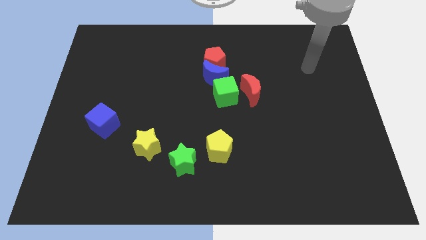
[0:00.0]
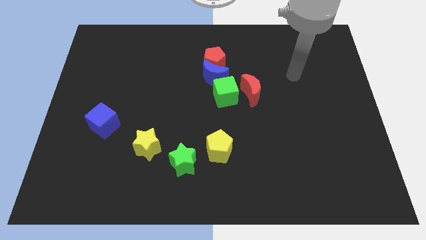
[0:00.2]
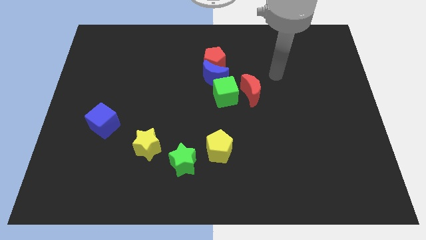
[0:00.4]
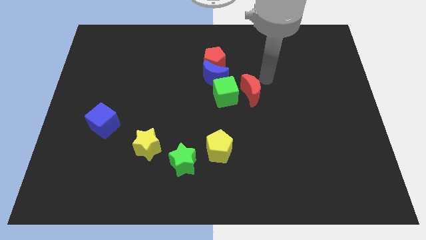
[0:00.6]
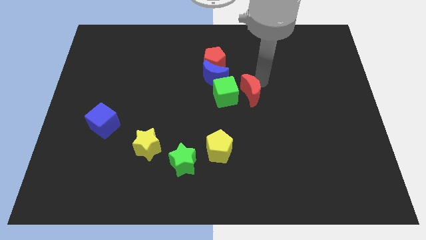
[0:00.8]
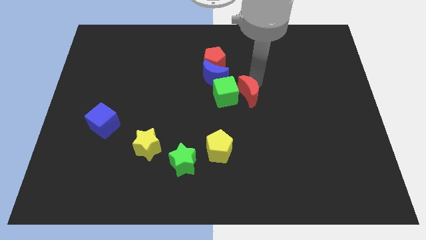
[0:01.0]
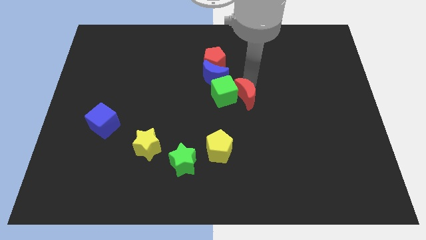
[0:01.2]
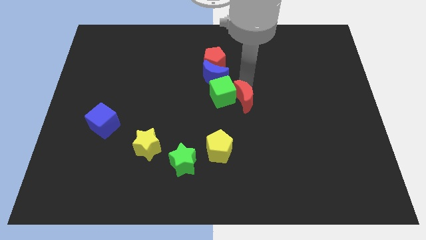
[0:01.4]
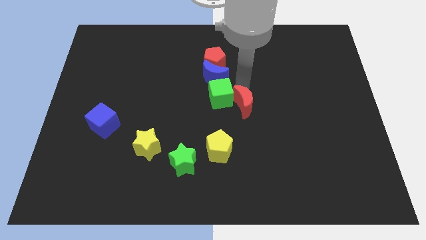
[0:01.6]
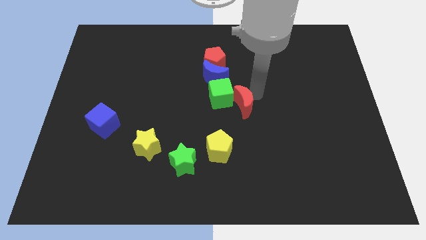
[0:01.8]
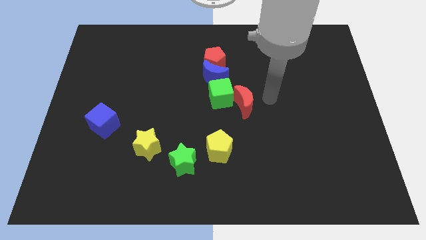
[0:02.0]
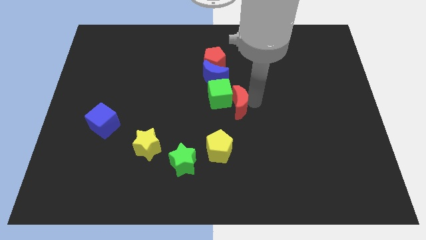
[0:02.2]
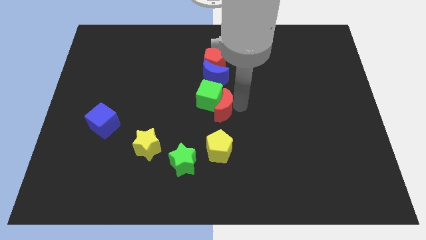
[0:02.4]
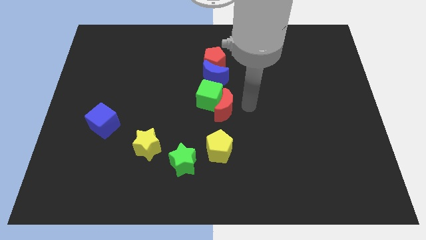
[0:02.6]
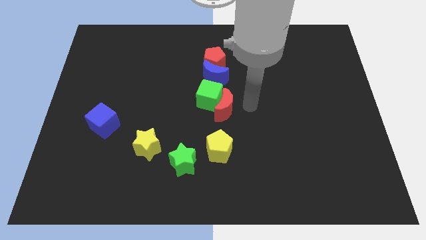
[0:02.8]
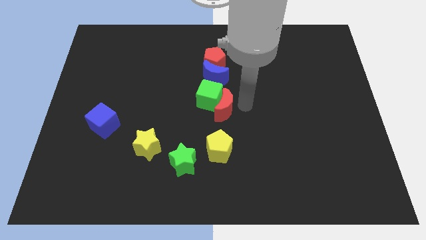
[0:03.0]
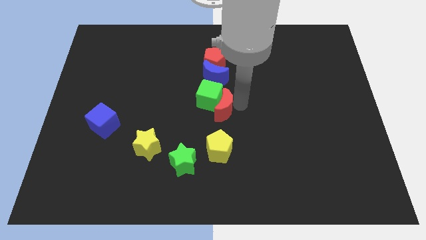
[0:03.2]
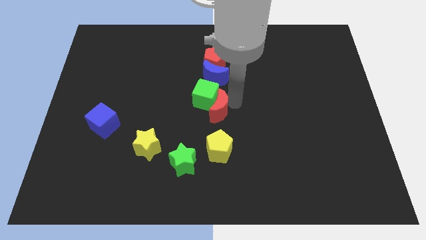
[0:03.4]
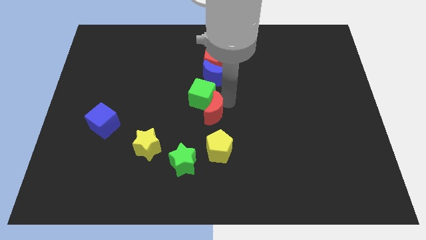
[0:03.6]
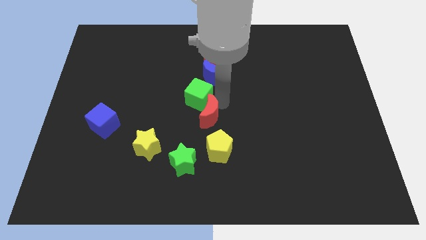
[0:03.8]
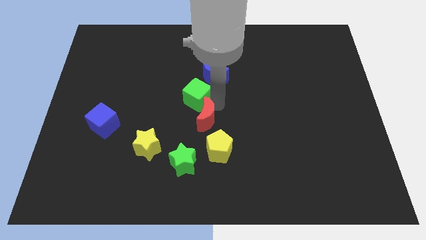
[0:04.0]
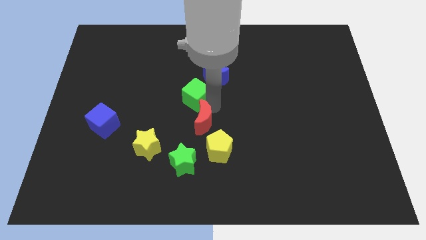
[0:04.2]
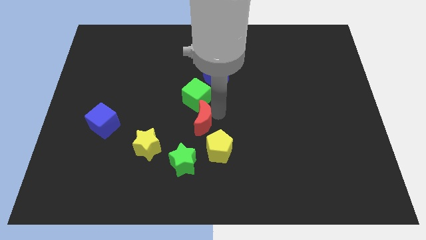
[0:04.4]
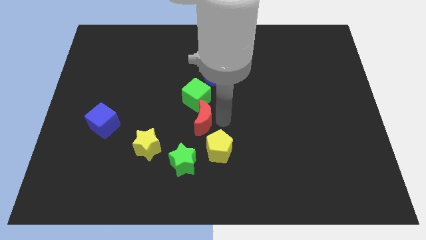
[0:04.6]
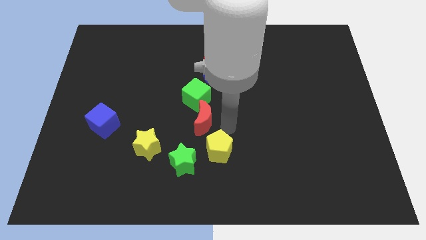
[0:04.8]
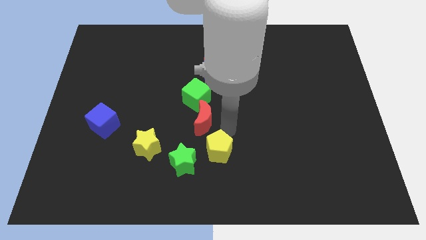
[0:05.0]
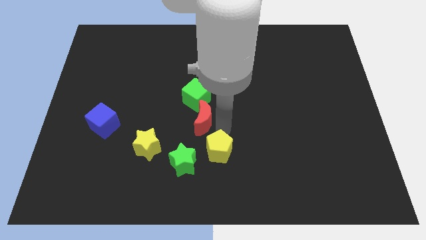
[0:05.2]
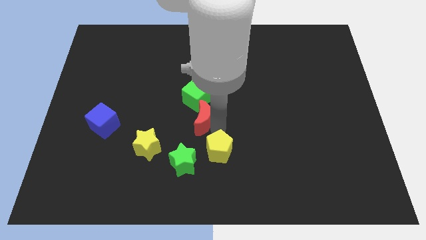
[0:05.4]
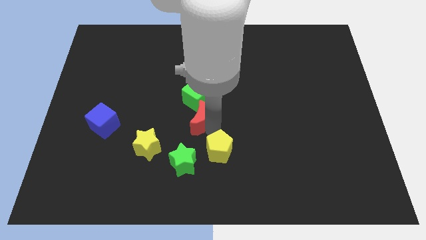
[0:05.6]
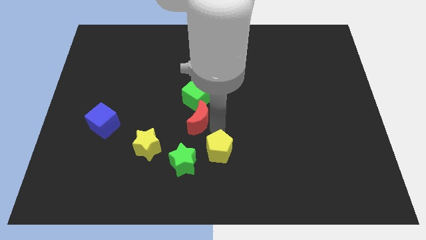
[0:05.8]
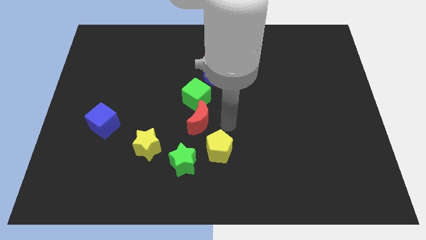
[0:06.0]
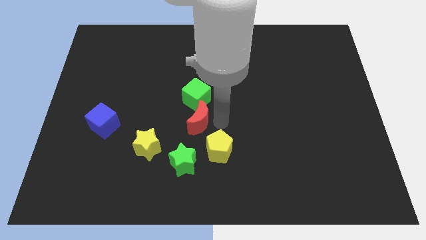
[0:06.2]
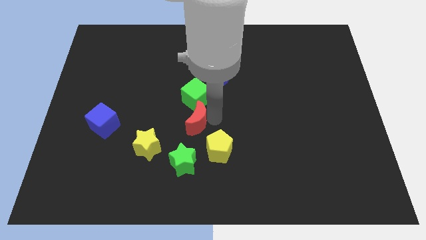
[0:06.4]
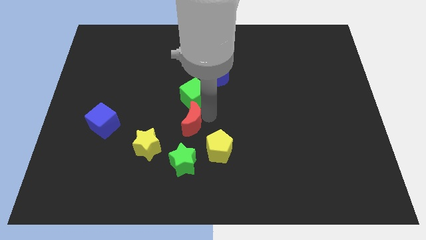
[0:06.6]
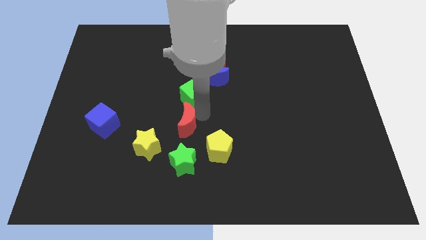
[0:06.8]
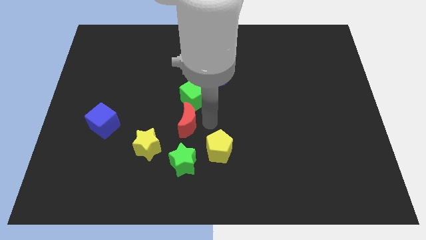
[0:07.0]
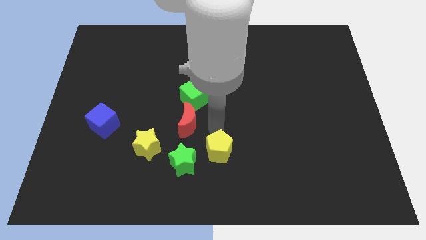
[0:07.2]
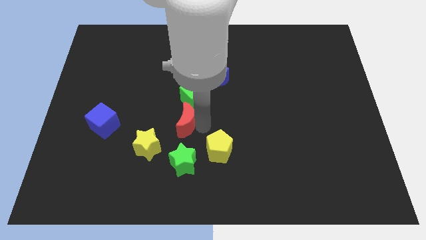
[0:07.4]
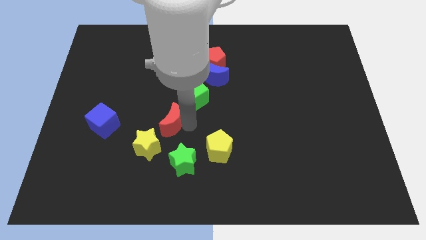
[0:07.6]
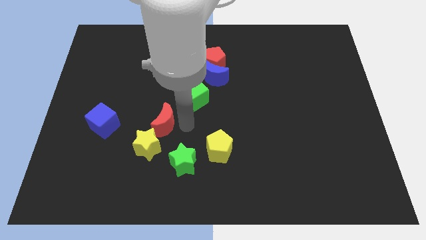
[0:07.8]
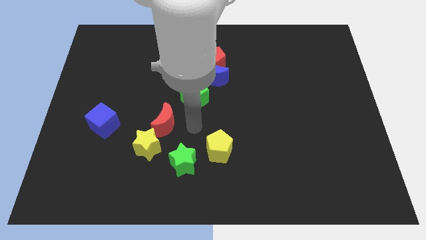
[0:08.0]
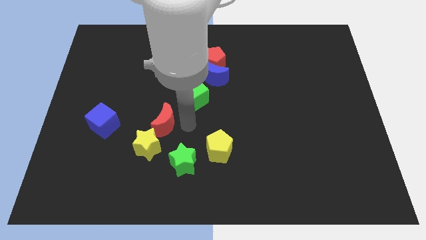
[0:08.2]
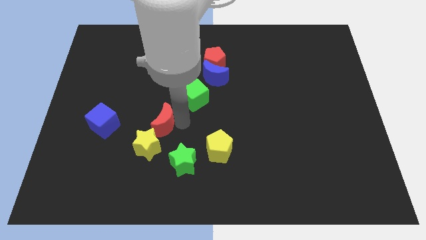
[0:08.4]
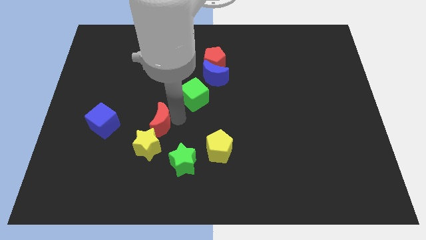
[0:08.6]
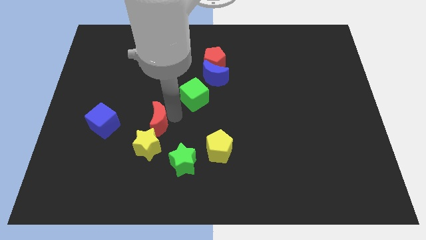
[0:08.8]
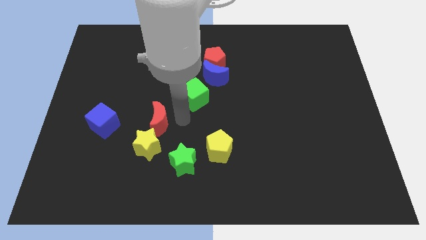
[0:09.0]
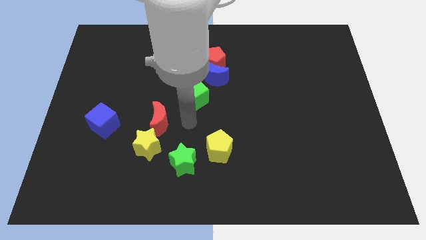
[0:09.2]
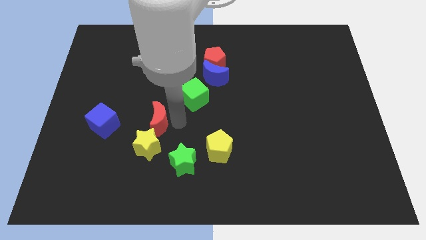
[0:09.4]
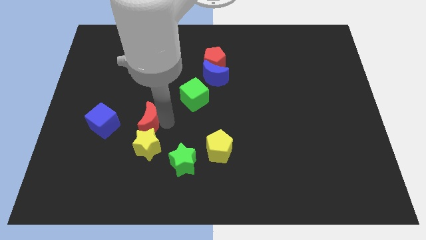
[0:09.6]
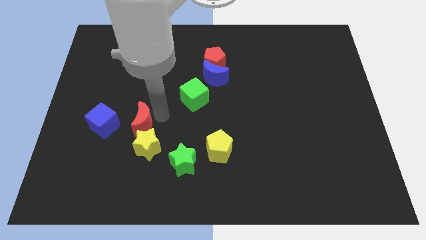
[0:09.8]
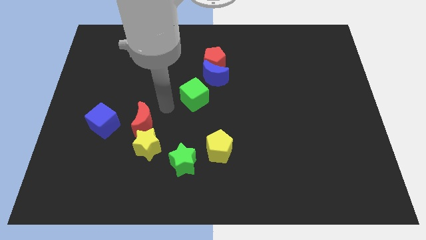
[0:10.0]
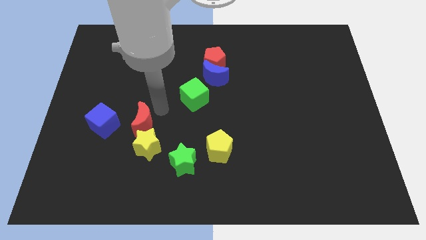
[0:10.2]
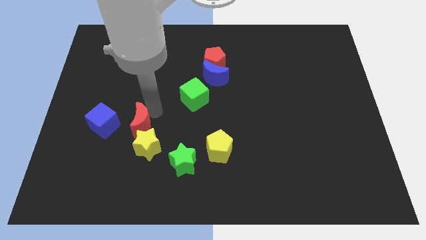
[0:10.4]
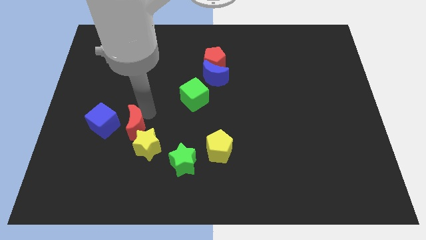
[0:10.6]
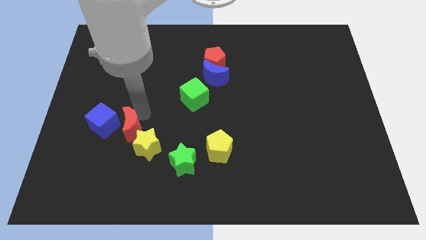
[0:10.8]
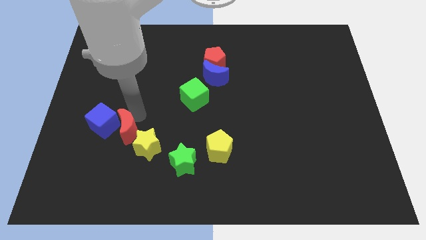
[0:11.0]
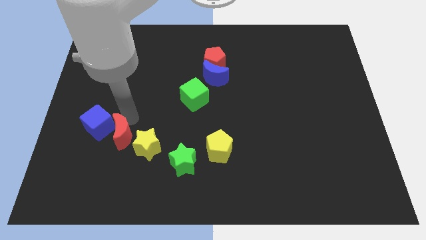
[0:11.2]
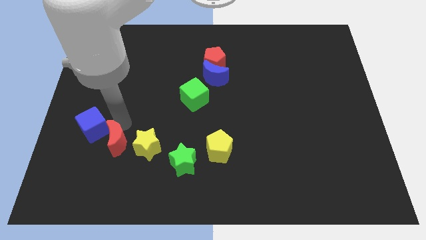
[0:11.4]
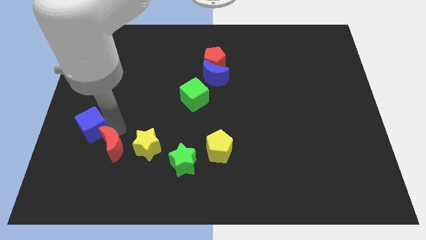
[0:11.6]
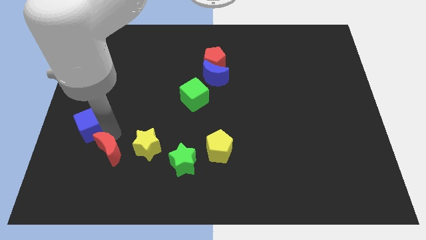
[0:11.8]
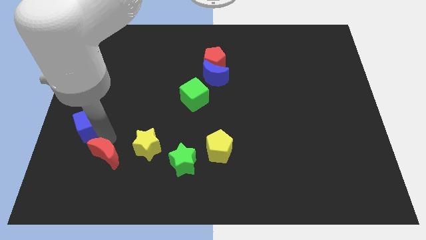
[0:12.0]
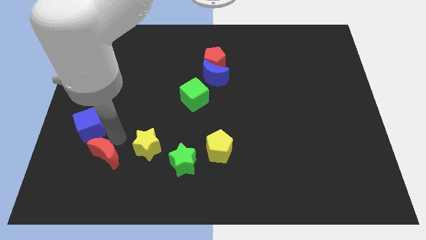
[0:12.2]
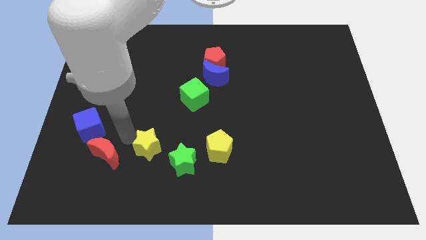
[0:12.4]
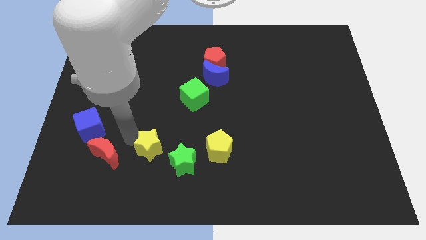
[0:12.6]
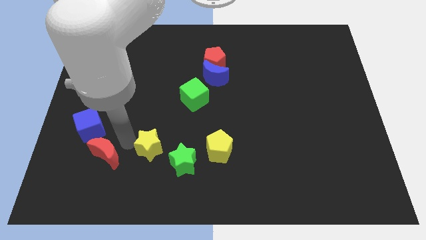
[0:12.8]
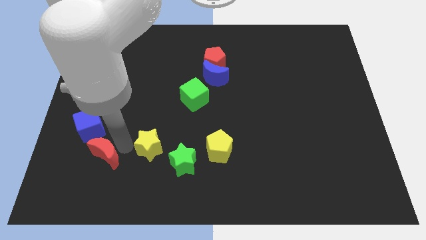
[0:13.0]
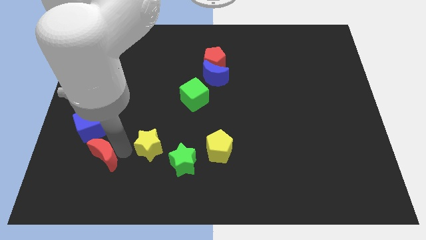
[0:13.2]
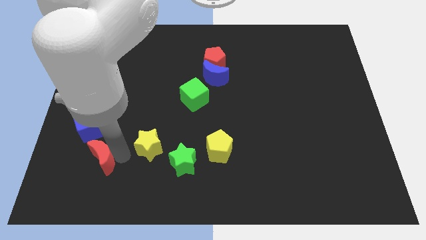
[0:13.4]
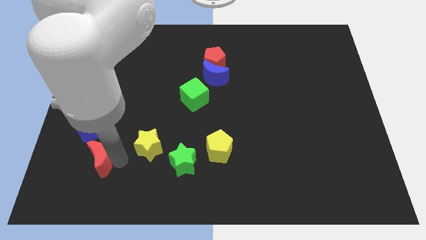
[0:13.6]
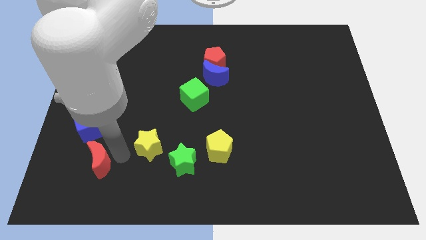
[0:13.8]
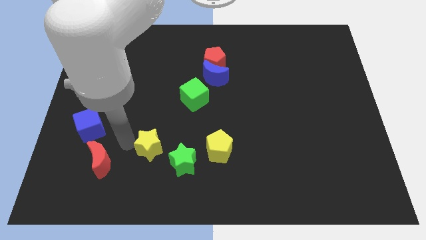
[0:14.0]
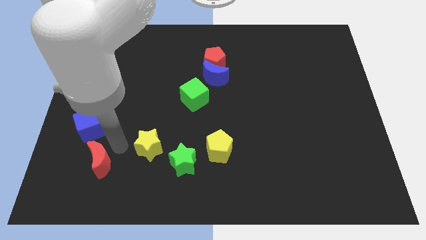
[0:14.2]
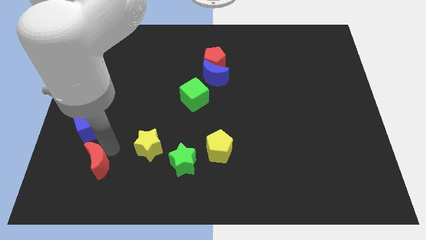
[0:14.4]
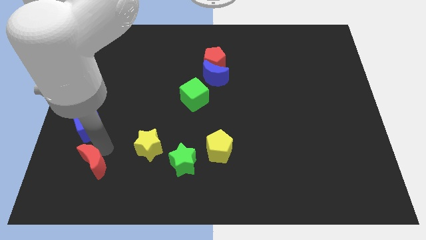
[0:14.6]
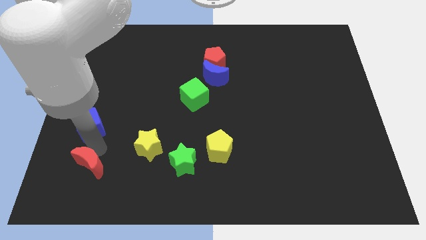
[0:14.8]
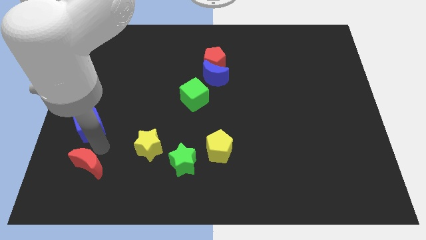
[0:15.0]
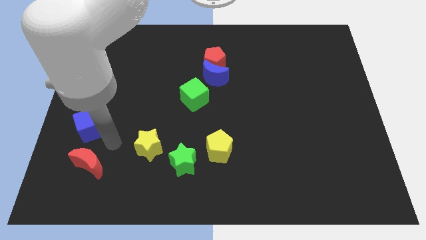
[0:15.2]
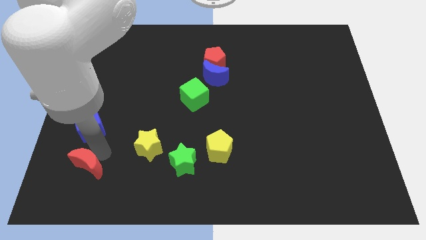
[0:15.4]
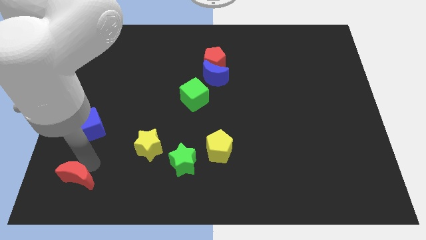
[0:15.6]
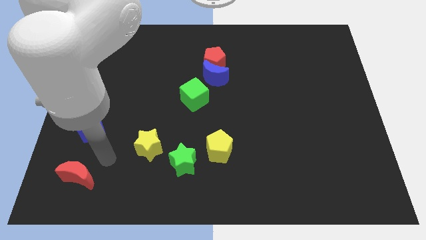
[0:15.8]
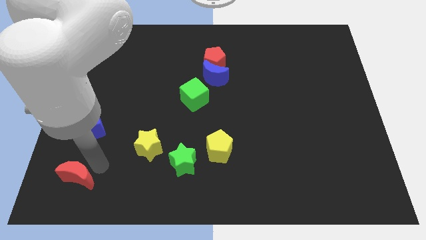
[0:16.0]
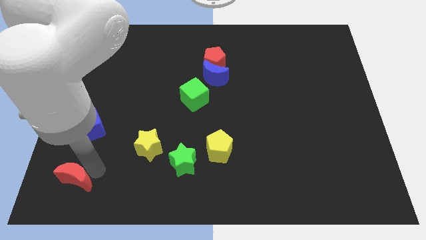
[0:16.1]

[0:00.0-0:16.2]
slide the red moon to the bottom left corner
